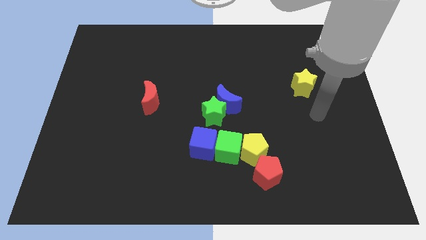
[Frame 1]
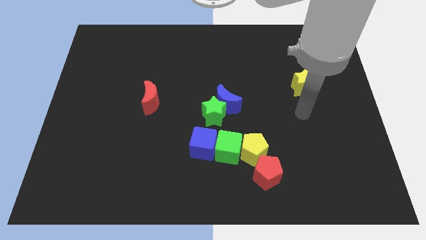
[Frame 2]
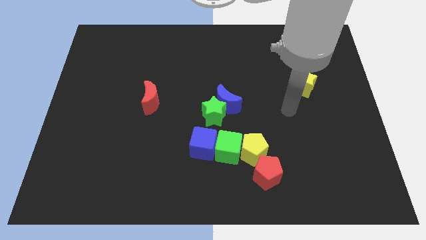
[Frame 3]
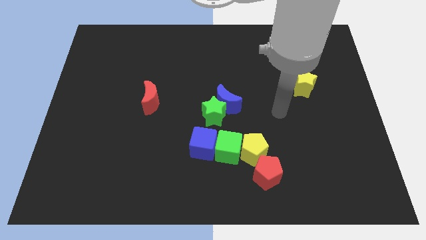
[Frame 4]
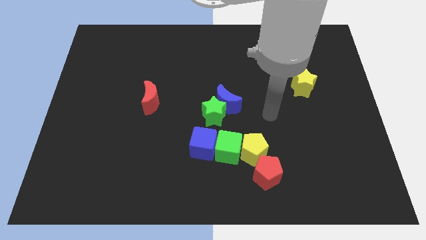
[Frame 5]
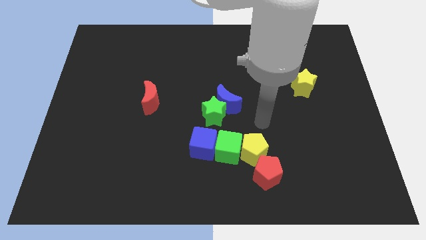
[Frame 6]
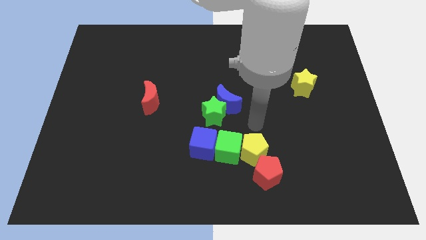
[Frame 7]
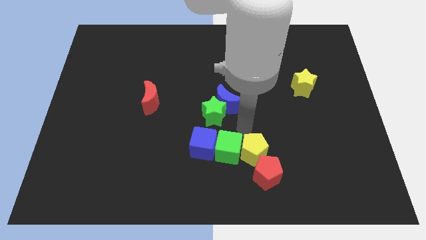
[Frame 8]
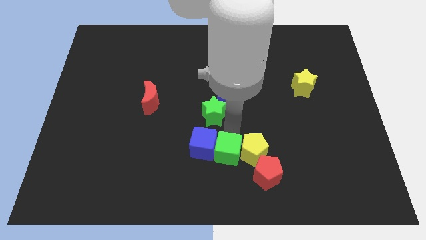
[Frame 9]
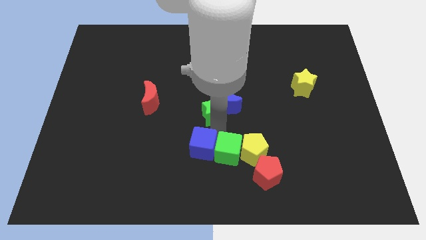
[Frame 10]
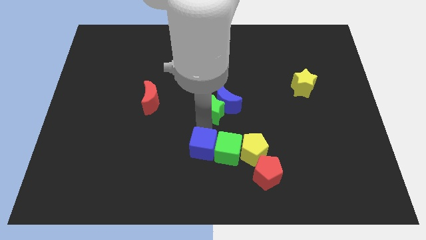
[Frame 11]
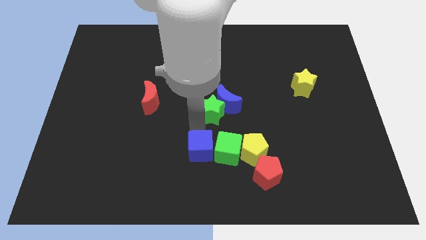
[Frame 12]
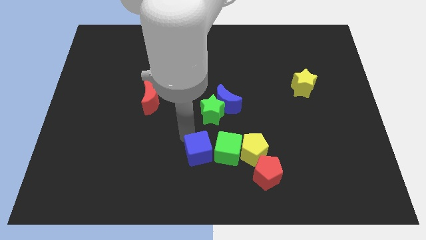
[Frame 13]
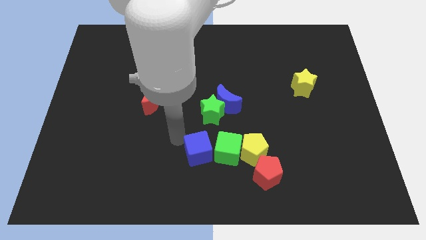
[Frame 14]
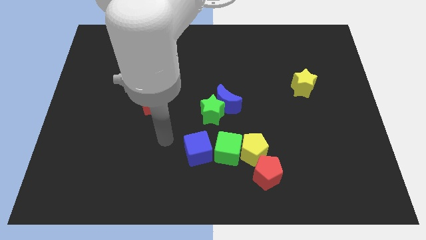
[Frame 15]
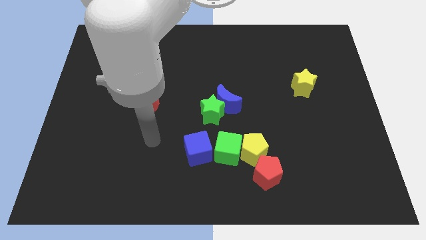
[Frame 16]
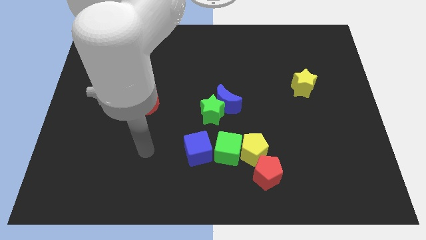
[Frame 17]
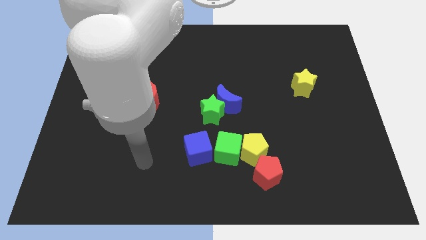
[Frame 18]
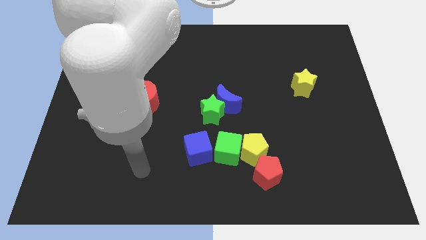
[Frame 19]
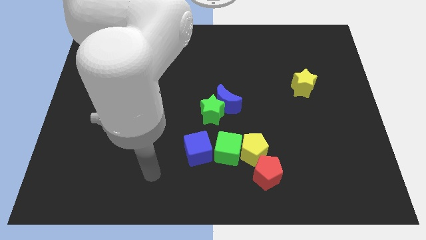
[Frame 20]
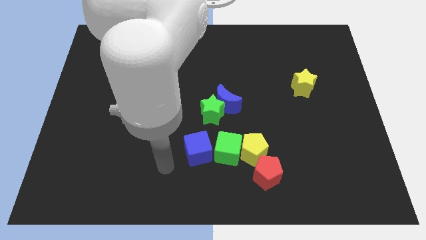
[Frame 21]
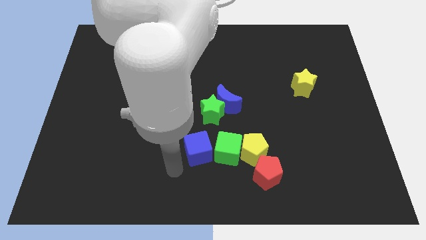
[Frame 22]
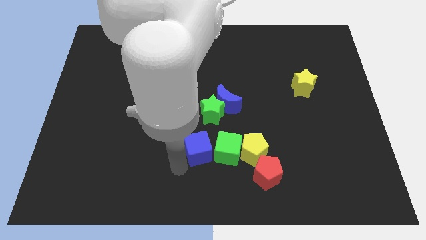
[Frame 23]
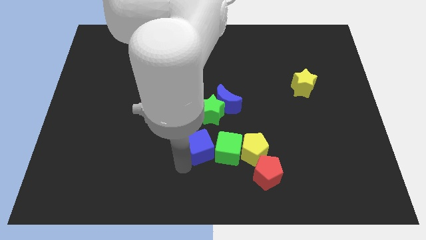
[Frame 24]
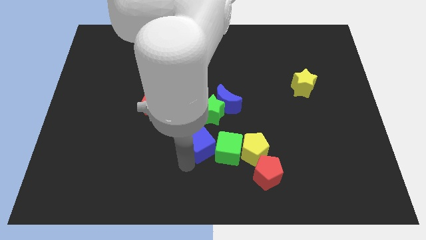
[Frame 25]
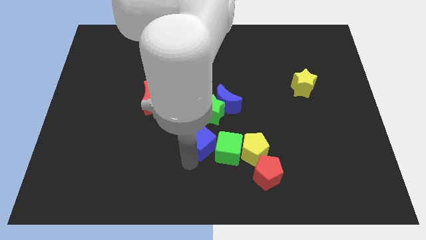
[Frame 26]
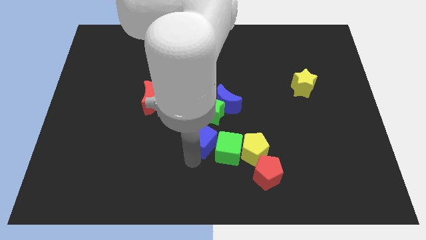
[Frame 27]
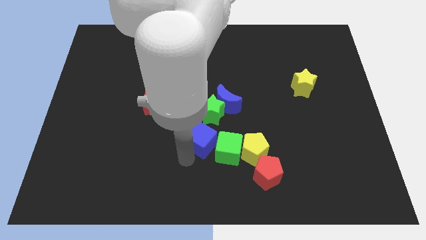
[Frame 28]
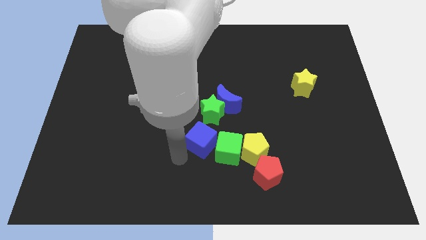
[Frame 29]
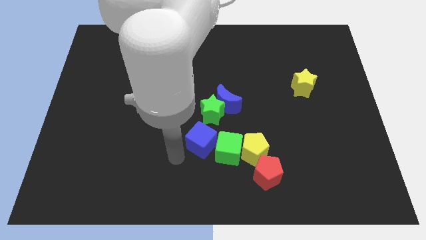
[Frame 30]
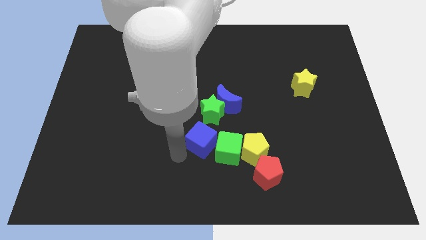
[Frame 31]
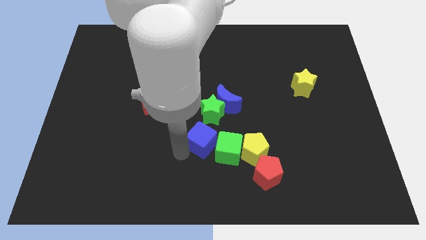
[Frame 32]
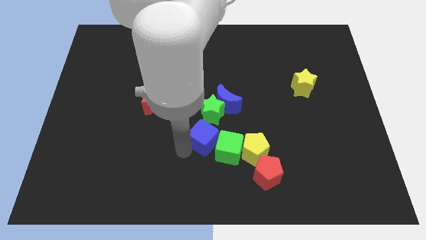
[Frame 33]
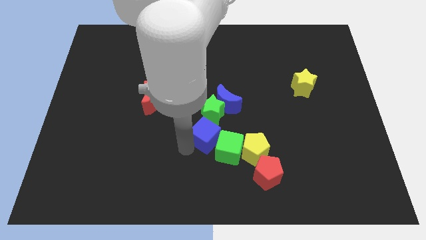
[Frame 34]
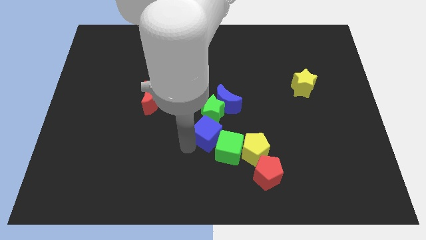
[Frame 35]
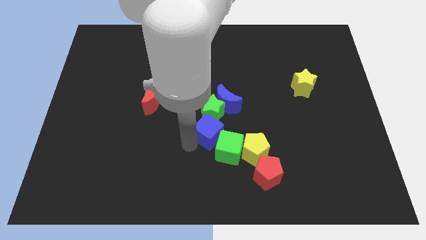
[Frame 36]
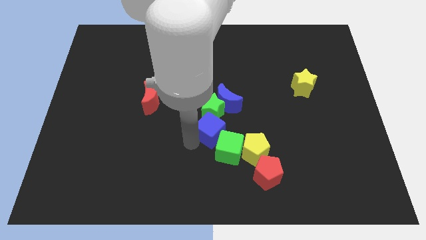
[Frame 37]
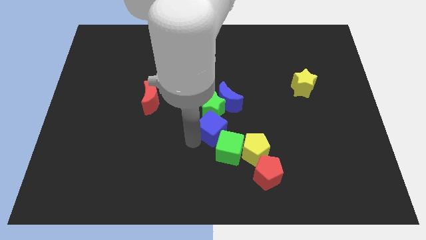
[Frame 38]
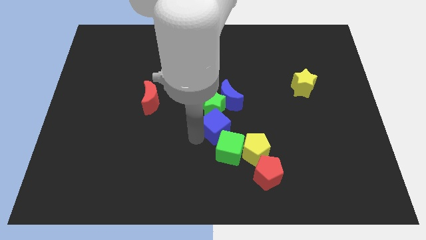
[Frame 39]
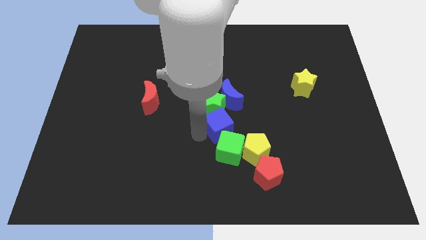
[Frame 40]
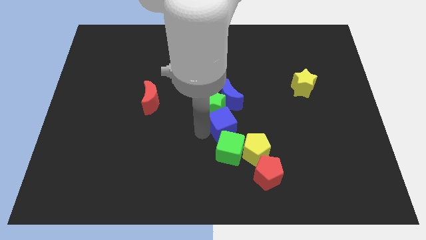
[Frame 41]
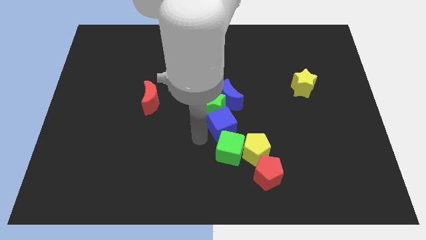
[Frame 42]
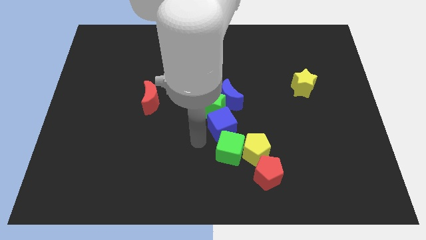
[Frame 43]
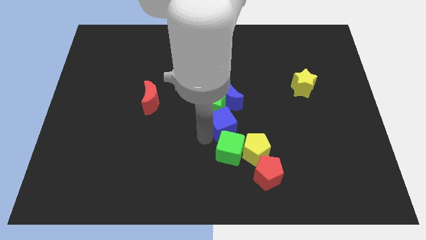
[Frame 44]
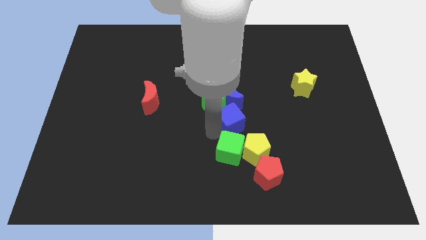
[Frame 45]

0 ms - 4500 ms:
push the blue cube a little bit up and right diagonally

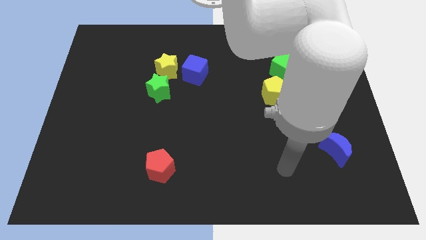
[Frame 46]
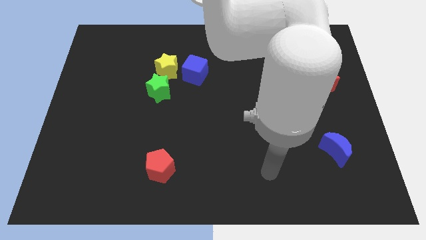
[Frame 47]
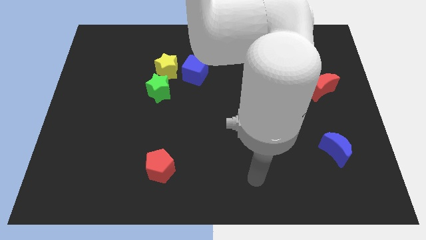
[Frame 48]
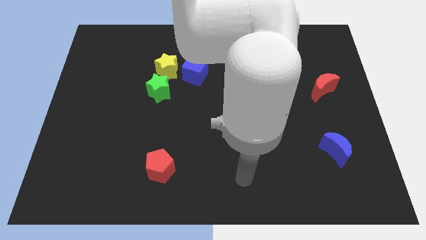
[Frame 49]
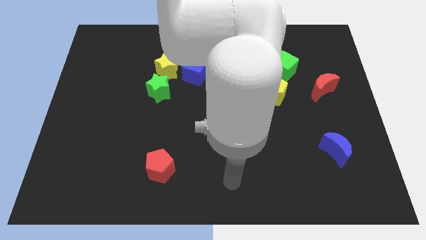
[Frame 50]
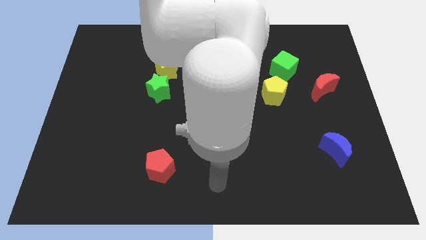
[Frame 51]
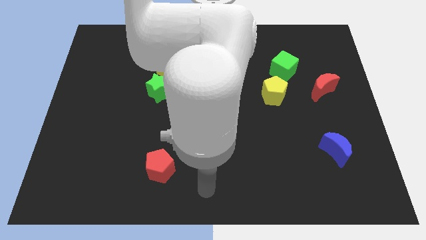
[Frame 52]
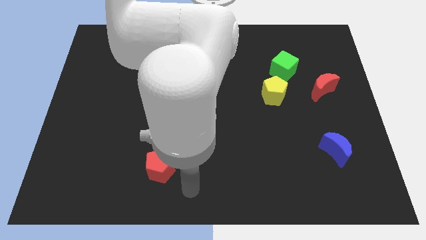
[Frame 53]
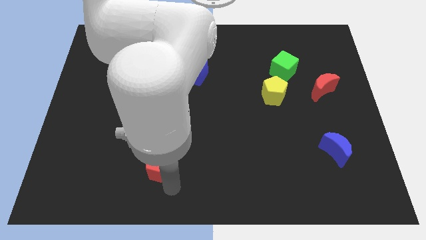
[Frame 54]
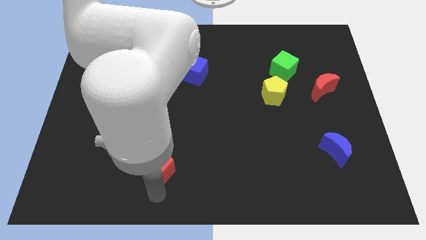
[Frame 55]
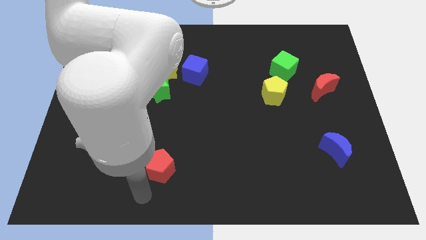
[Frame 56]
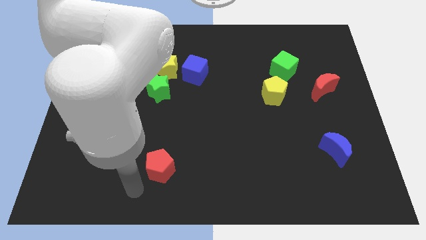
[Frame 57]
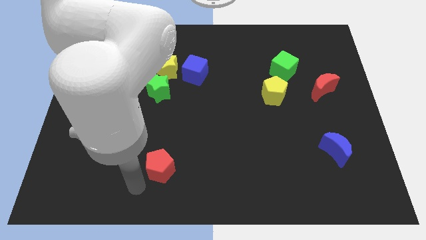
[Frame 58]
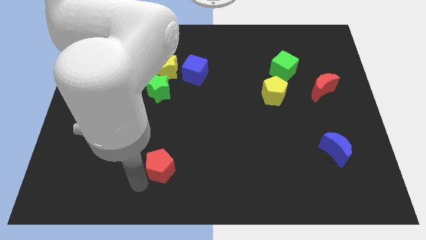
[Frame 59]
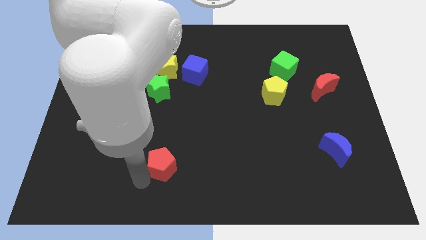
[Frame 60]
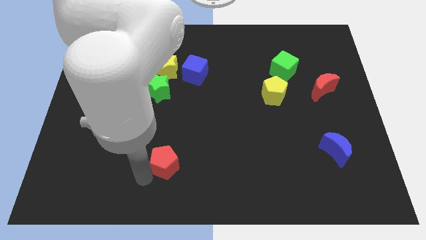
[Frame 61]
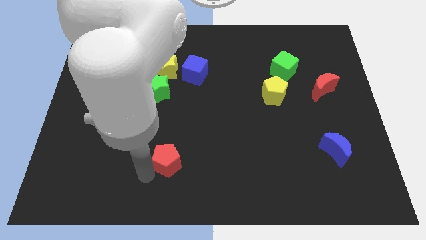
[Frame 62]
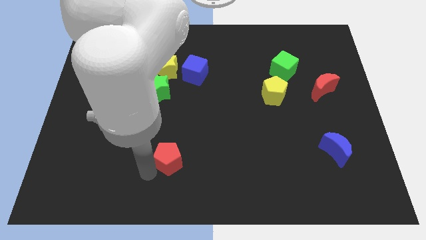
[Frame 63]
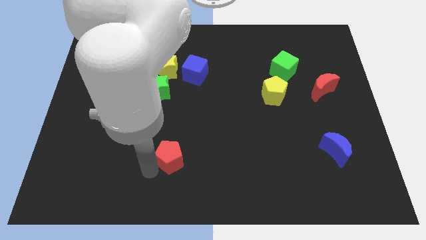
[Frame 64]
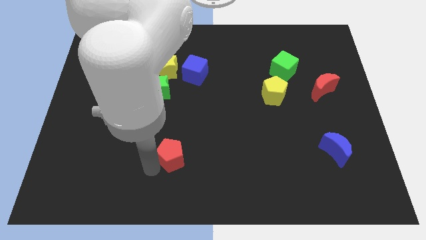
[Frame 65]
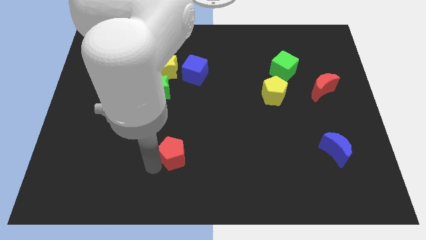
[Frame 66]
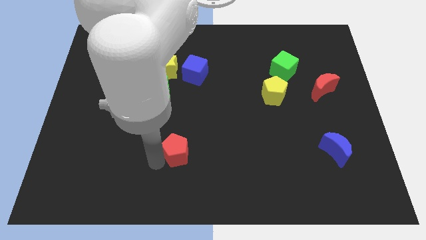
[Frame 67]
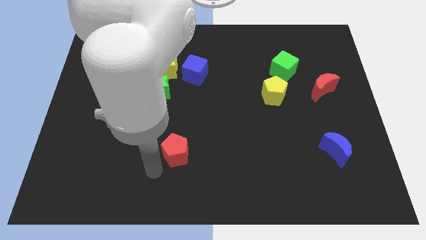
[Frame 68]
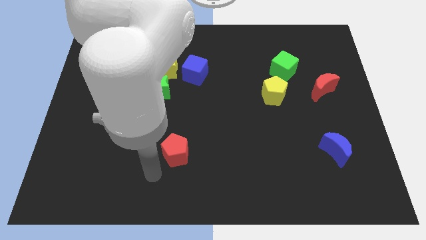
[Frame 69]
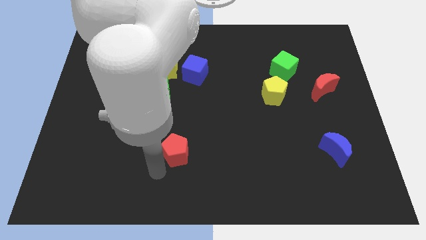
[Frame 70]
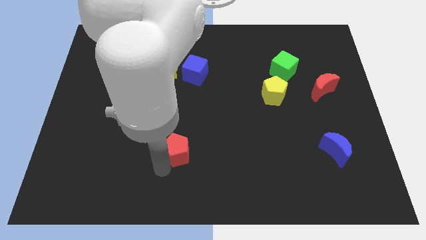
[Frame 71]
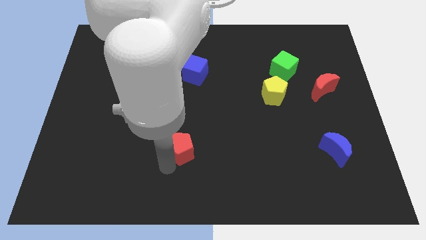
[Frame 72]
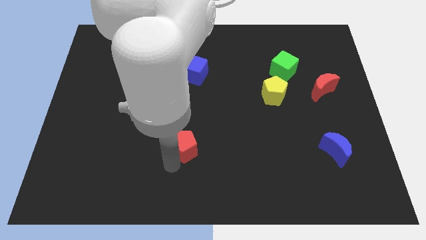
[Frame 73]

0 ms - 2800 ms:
push the red pentagon slightly upwards and right

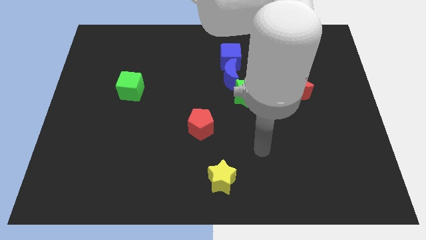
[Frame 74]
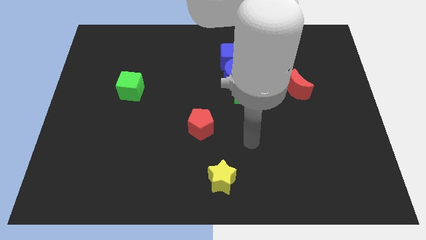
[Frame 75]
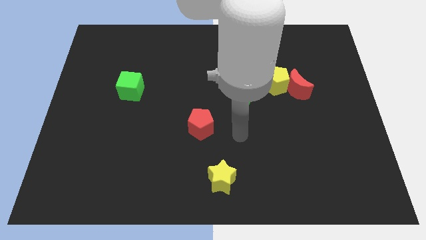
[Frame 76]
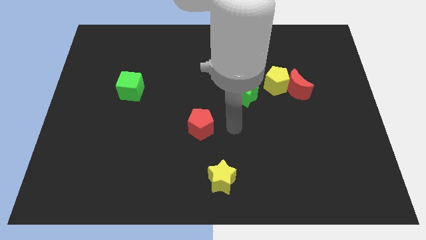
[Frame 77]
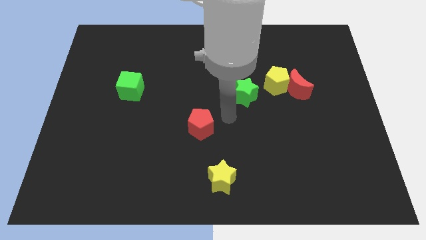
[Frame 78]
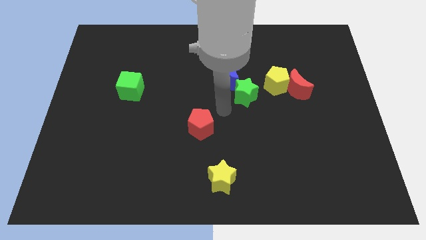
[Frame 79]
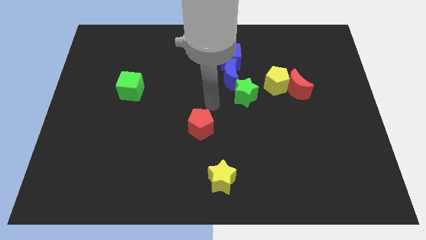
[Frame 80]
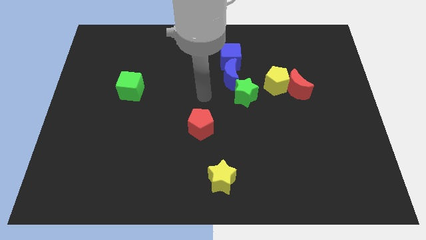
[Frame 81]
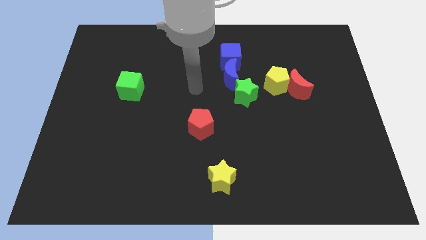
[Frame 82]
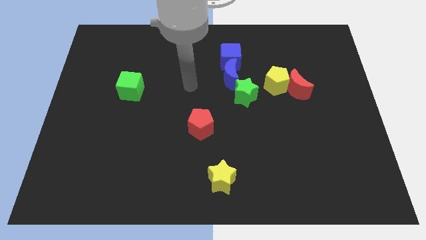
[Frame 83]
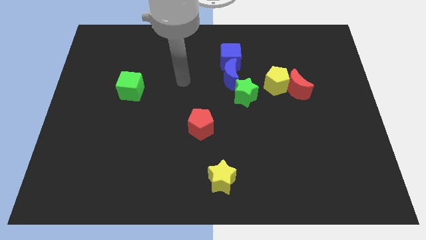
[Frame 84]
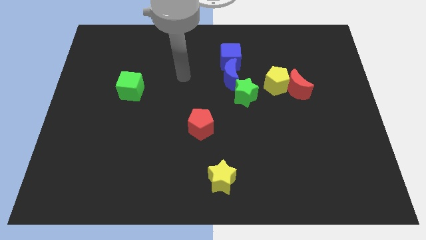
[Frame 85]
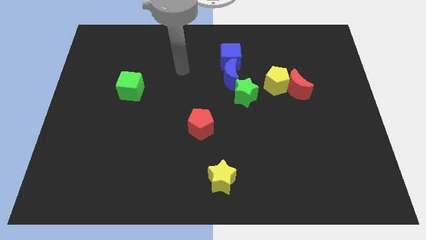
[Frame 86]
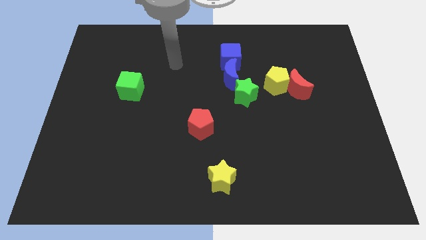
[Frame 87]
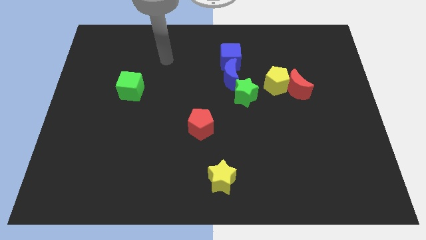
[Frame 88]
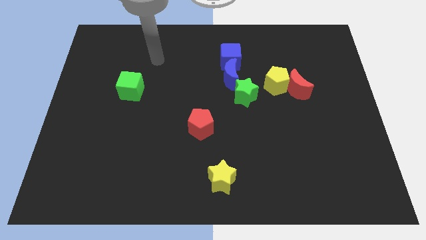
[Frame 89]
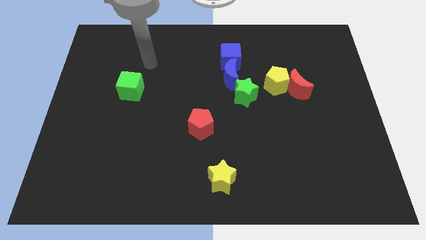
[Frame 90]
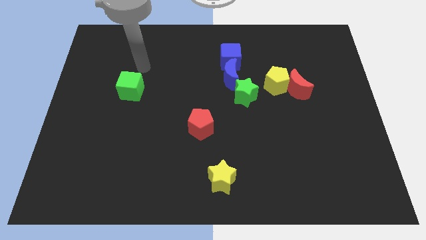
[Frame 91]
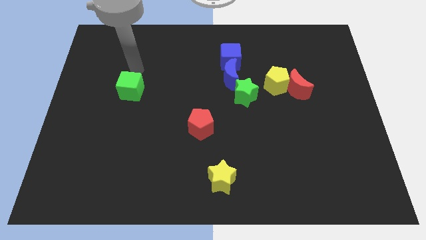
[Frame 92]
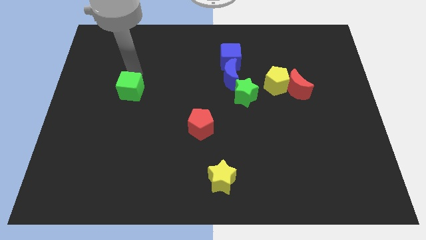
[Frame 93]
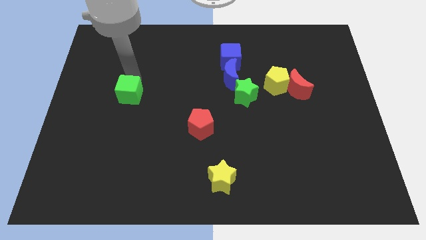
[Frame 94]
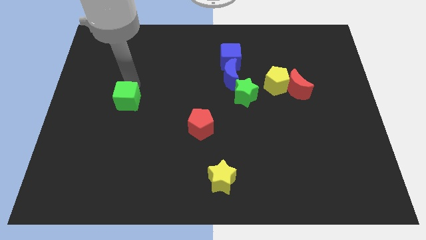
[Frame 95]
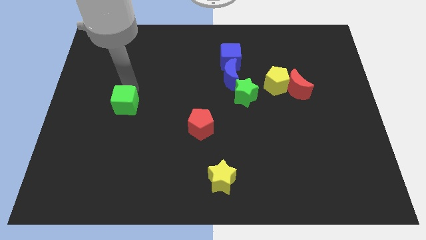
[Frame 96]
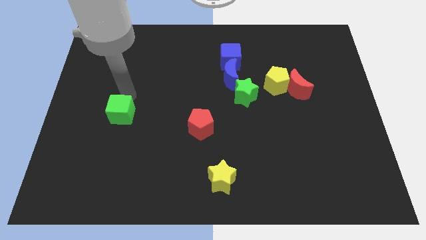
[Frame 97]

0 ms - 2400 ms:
push the green cube a little down
